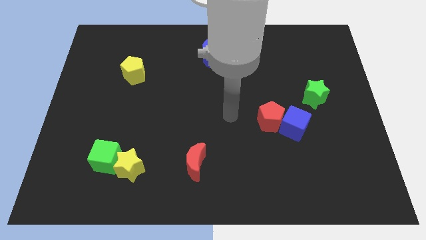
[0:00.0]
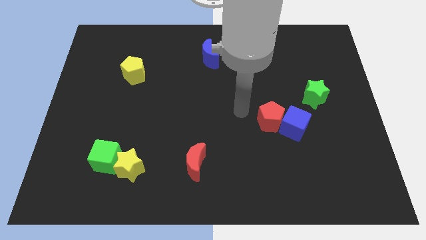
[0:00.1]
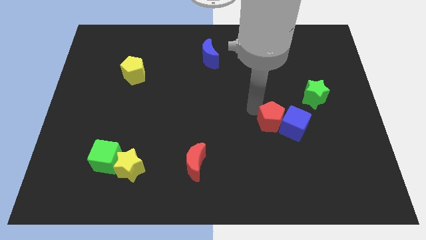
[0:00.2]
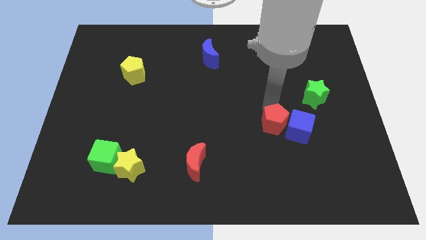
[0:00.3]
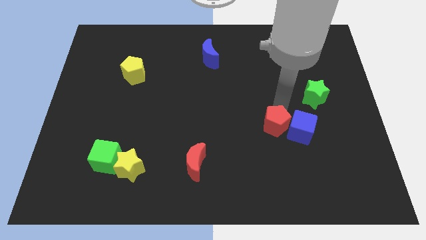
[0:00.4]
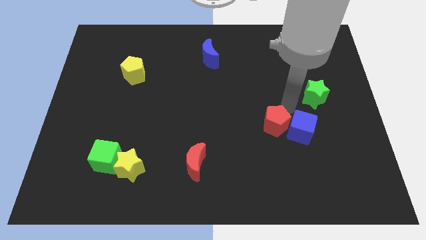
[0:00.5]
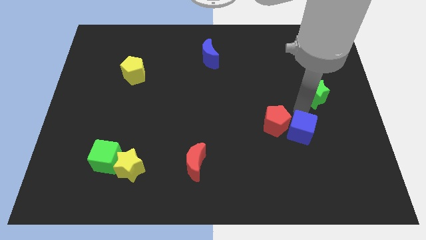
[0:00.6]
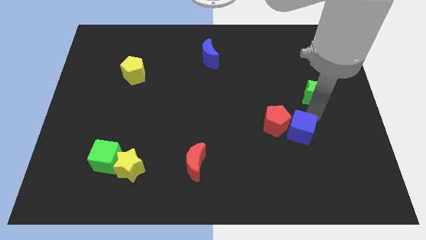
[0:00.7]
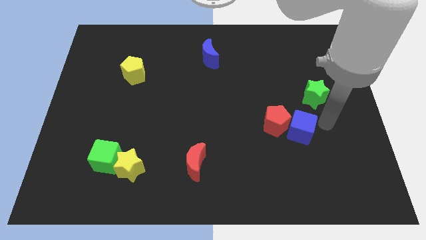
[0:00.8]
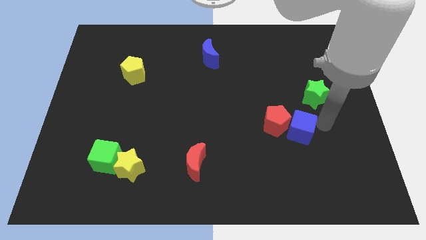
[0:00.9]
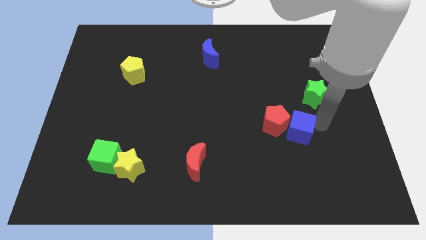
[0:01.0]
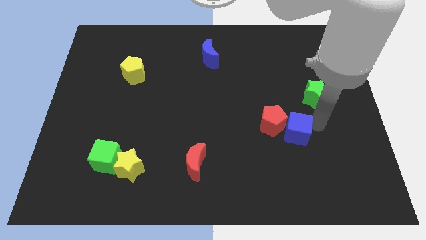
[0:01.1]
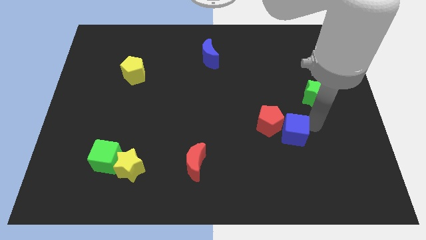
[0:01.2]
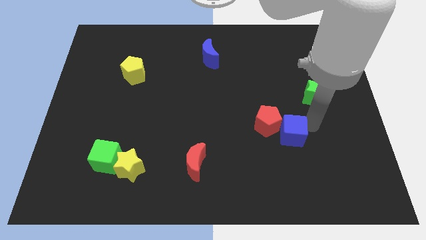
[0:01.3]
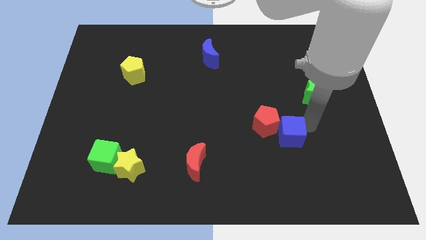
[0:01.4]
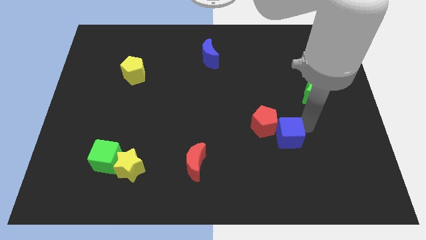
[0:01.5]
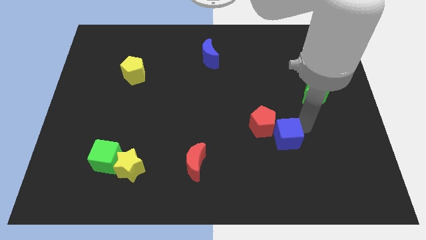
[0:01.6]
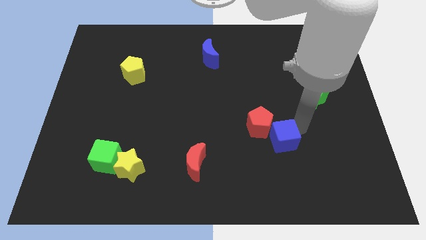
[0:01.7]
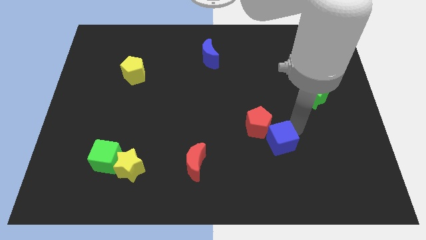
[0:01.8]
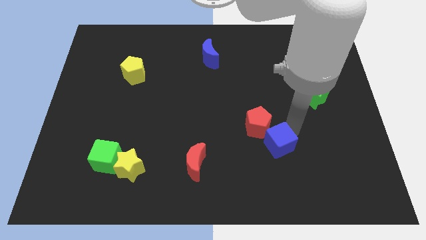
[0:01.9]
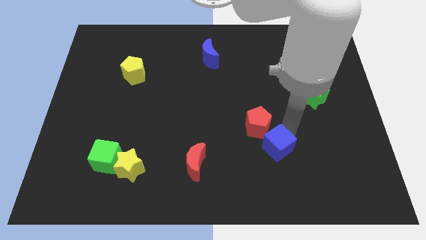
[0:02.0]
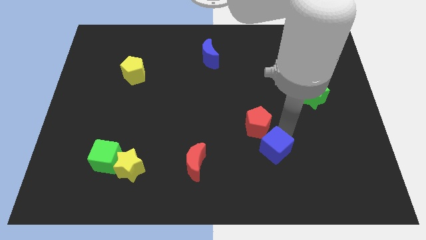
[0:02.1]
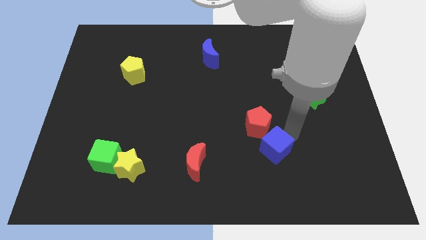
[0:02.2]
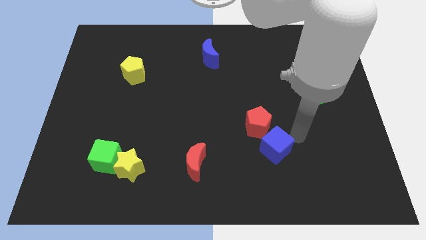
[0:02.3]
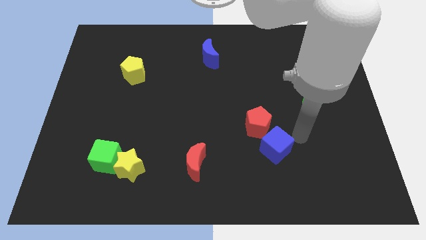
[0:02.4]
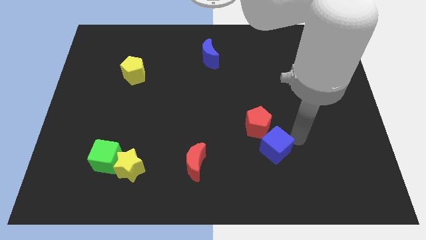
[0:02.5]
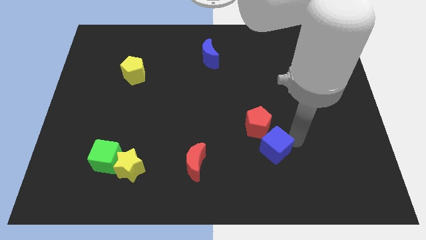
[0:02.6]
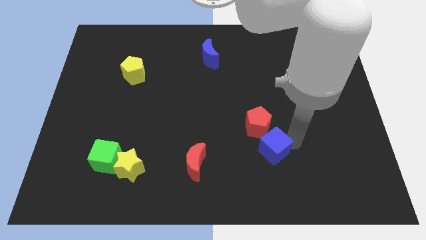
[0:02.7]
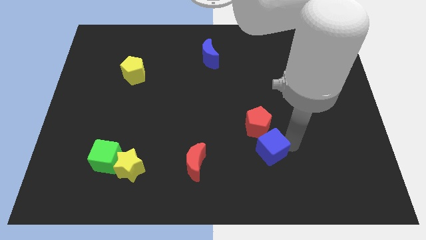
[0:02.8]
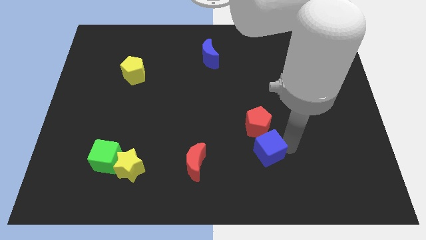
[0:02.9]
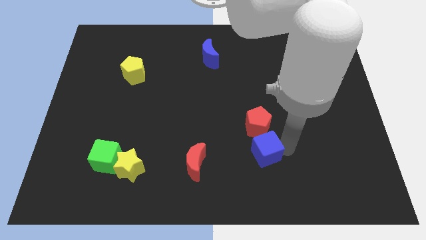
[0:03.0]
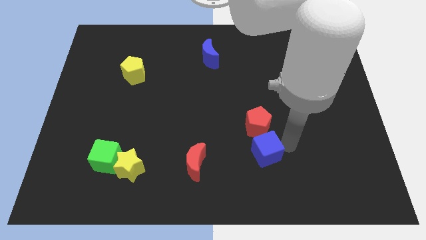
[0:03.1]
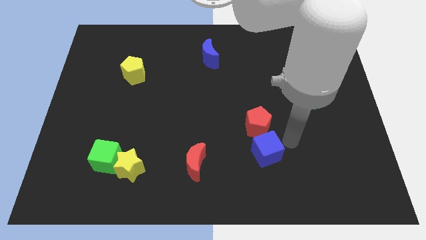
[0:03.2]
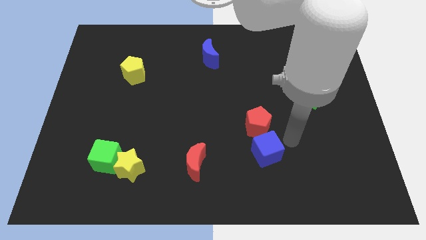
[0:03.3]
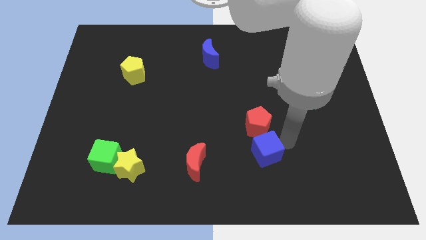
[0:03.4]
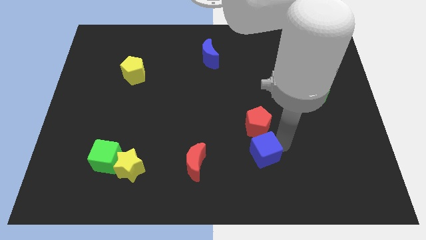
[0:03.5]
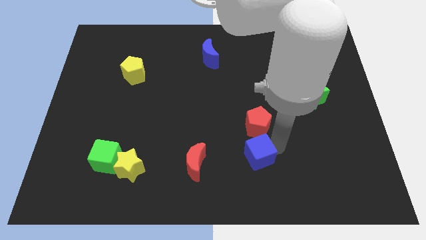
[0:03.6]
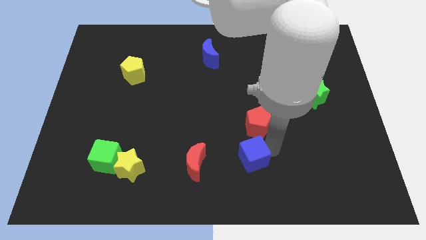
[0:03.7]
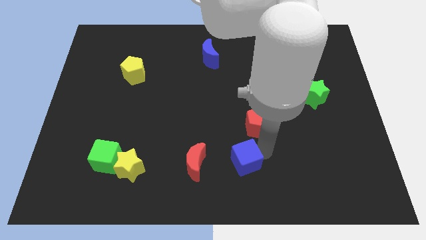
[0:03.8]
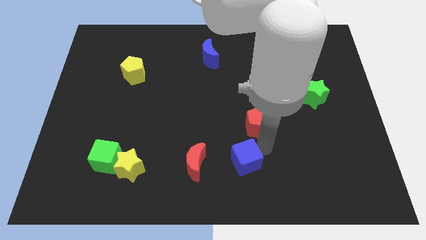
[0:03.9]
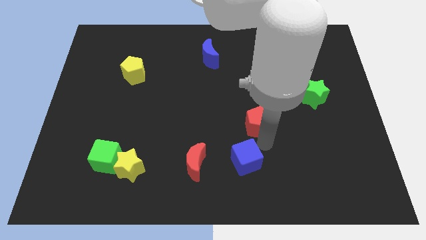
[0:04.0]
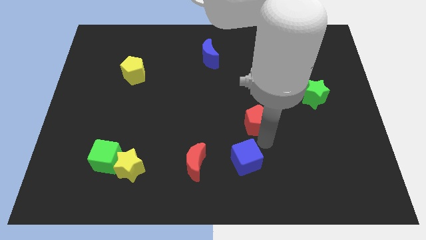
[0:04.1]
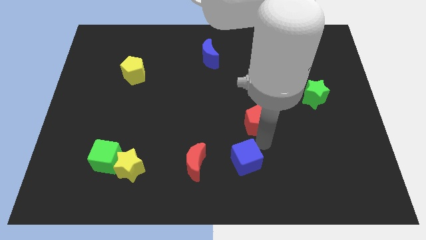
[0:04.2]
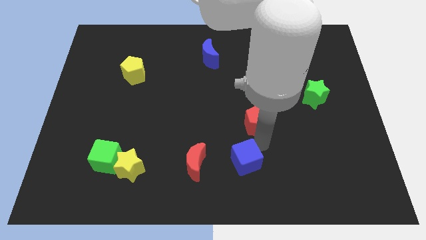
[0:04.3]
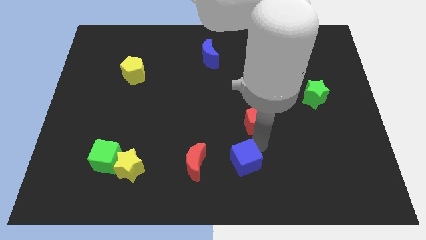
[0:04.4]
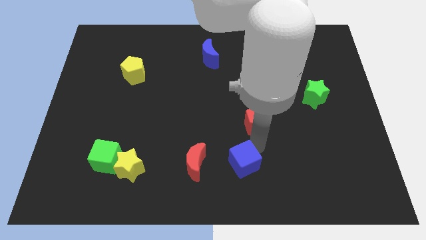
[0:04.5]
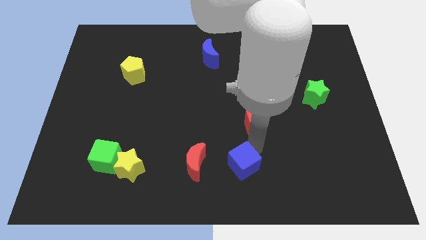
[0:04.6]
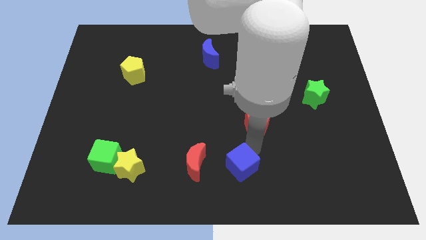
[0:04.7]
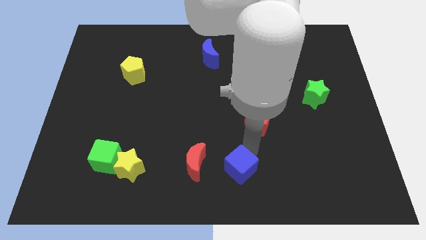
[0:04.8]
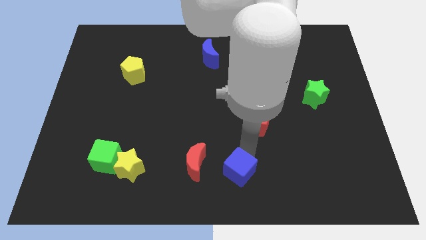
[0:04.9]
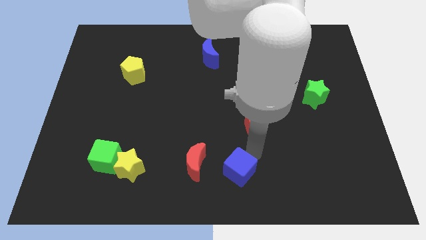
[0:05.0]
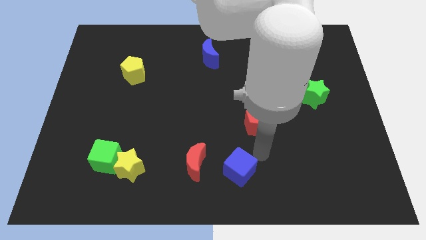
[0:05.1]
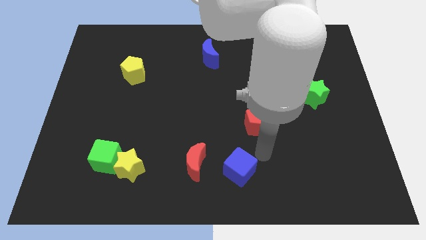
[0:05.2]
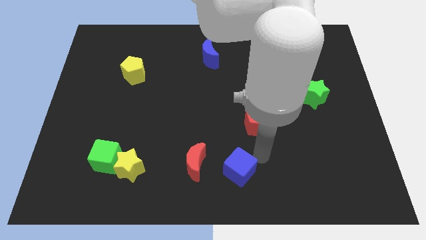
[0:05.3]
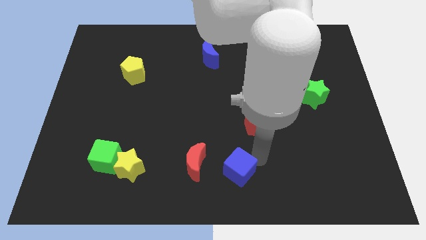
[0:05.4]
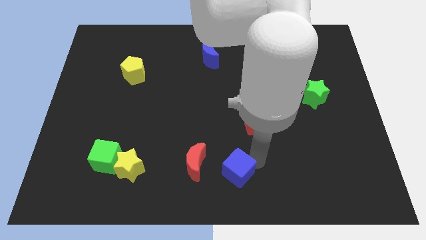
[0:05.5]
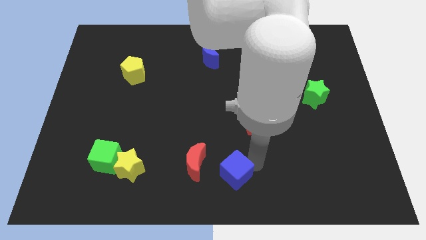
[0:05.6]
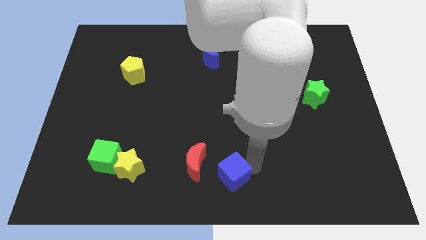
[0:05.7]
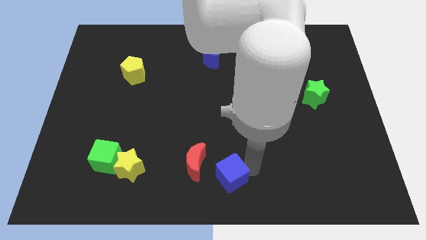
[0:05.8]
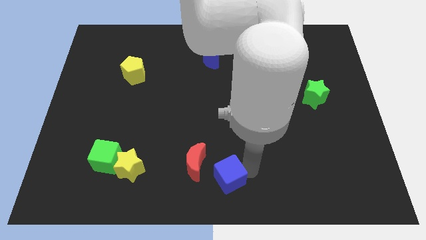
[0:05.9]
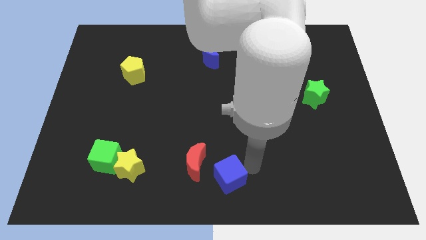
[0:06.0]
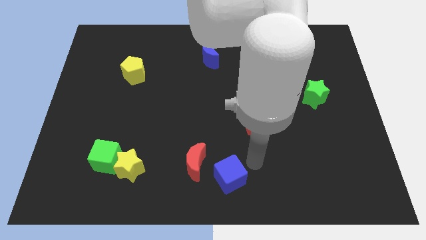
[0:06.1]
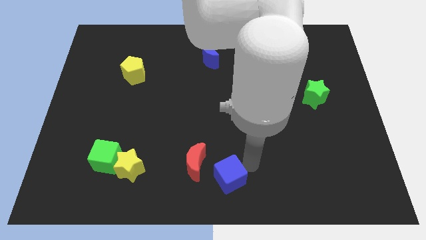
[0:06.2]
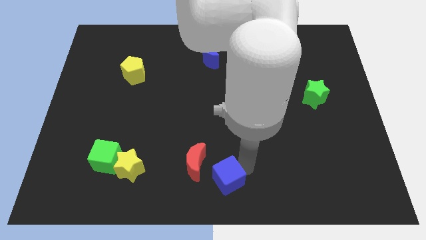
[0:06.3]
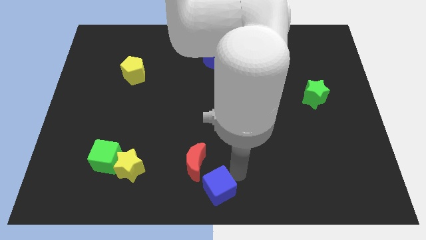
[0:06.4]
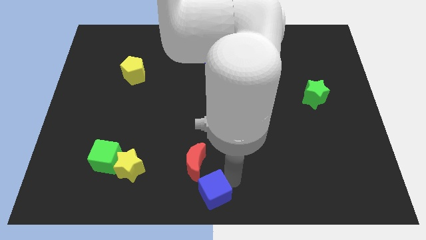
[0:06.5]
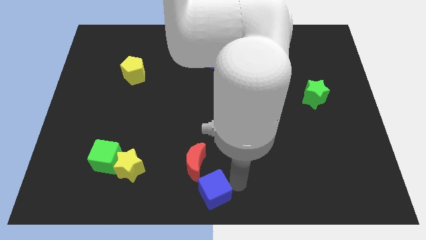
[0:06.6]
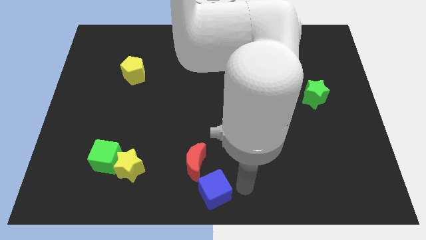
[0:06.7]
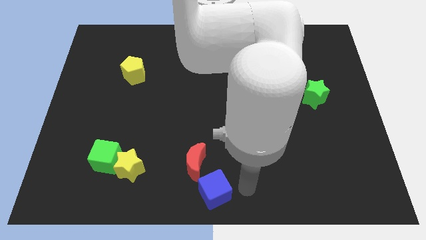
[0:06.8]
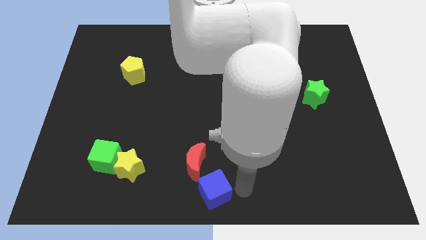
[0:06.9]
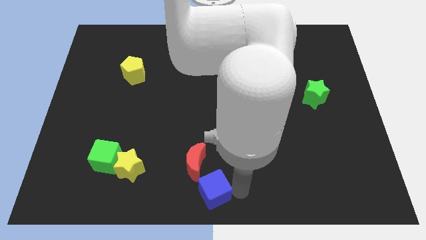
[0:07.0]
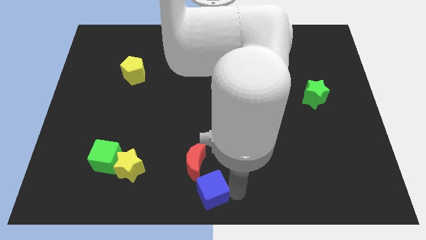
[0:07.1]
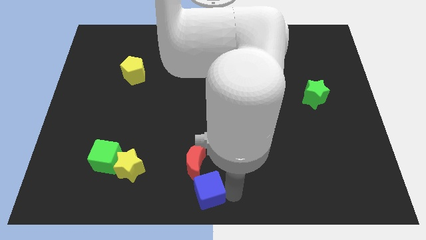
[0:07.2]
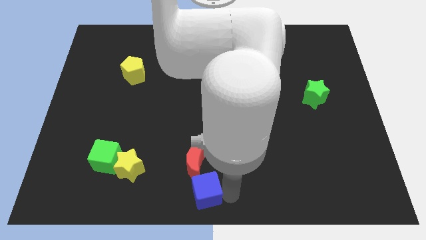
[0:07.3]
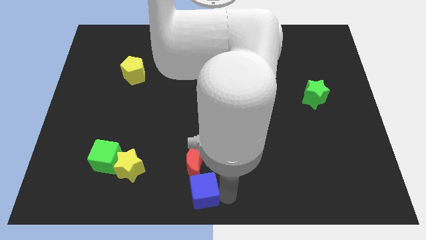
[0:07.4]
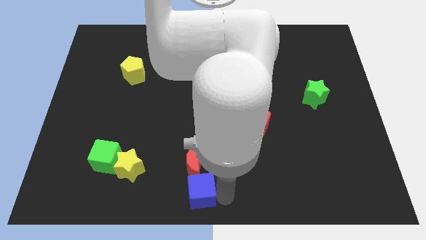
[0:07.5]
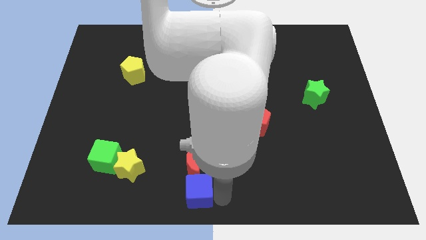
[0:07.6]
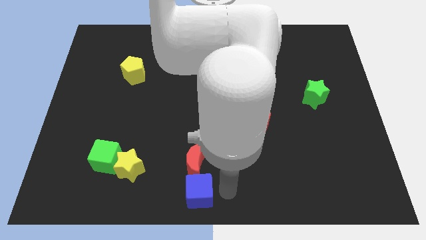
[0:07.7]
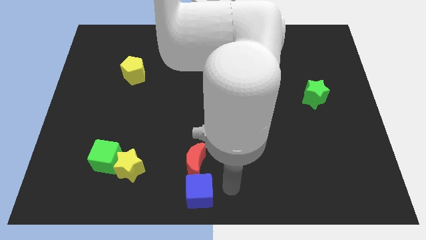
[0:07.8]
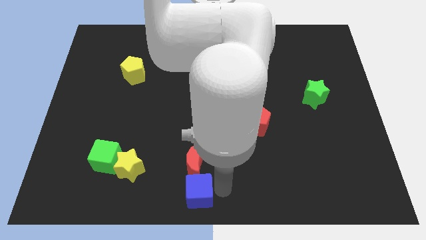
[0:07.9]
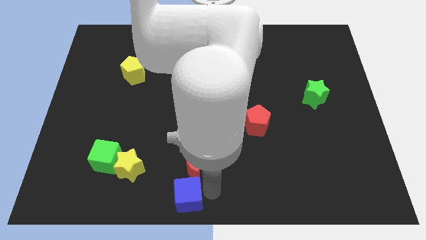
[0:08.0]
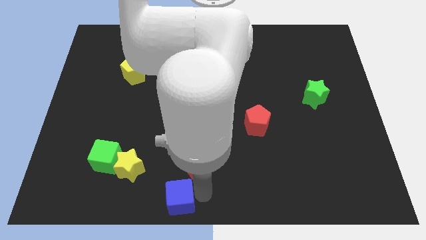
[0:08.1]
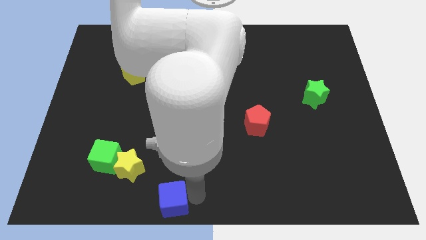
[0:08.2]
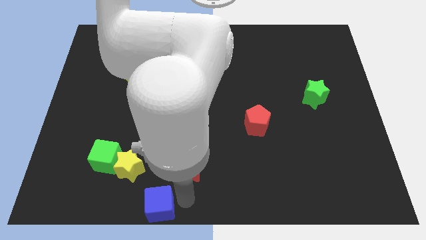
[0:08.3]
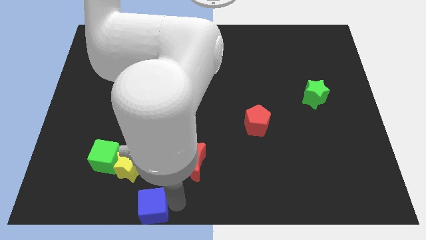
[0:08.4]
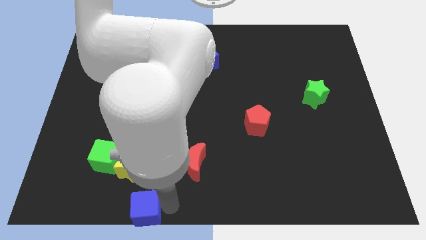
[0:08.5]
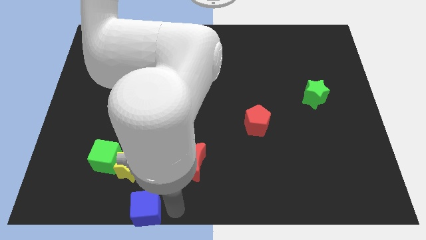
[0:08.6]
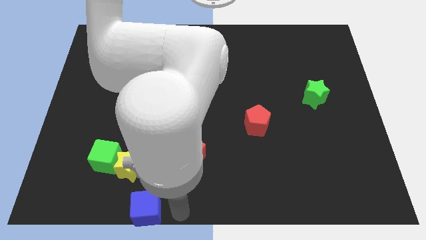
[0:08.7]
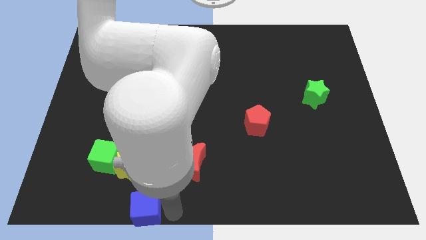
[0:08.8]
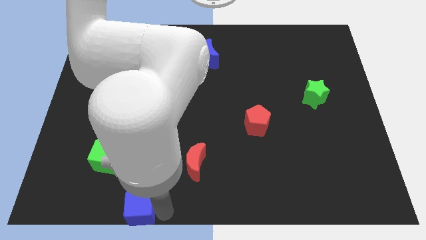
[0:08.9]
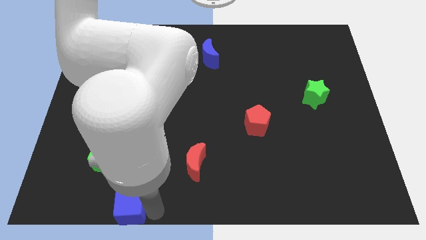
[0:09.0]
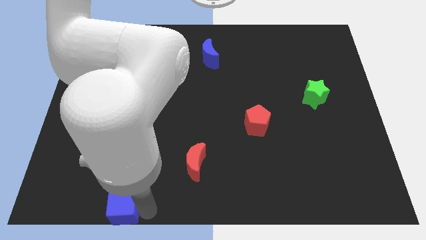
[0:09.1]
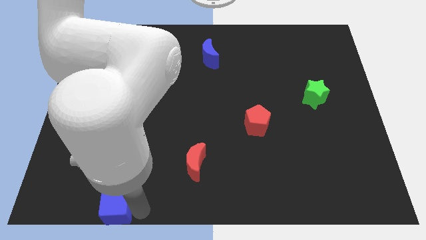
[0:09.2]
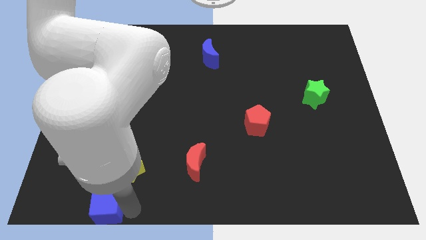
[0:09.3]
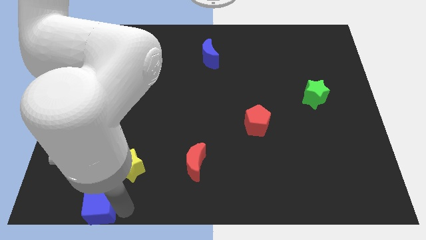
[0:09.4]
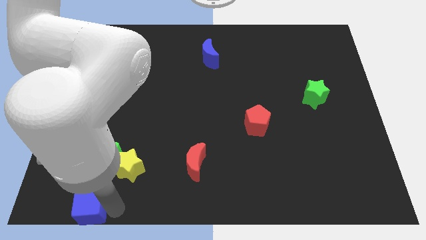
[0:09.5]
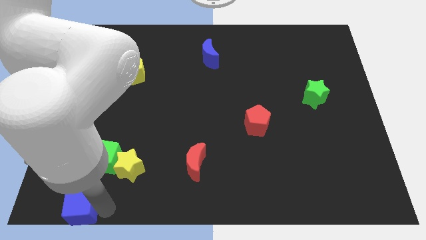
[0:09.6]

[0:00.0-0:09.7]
put the blue cube to the bottom left of the board
